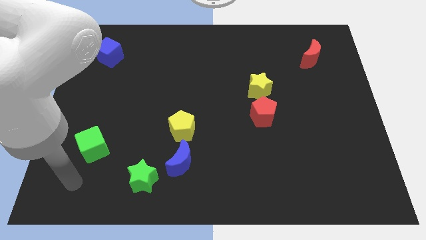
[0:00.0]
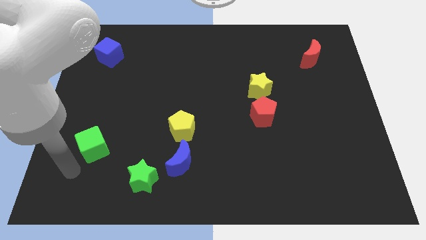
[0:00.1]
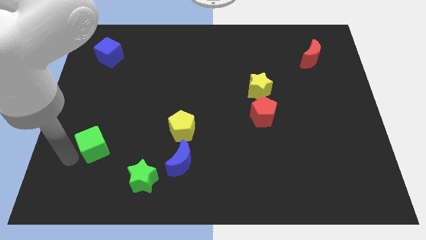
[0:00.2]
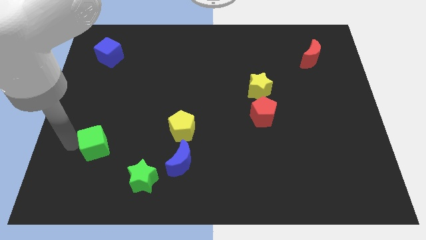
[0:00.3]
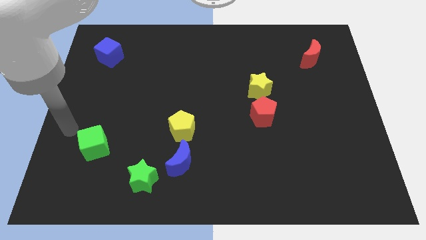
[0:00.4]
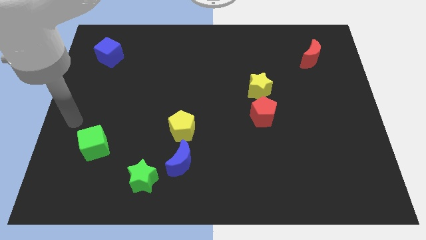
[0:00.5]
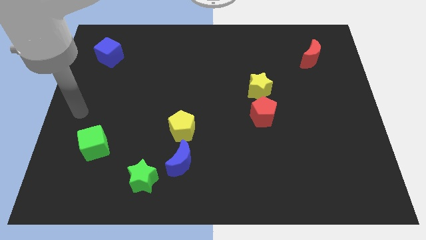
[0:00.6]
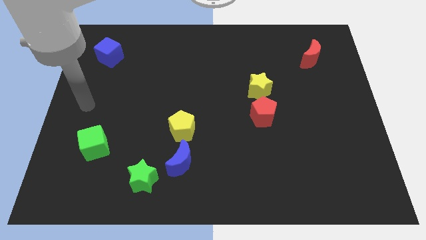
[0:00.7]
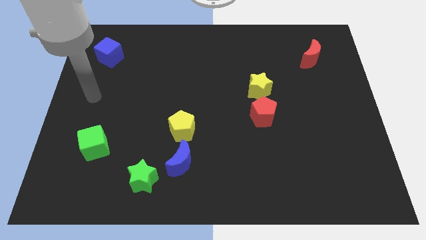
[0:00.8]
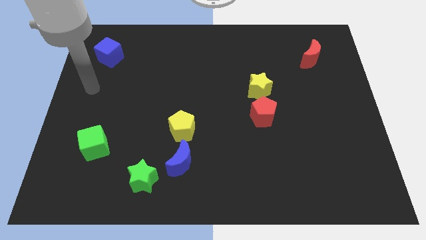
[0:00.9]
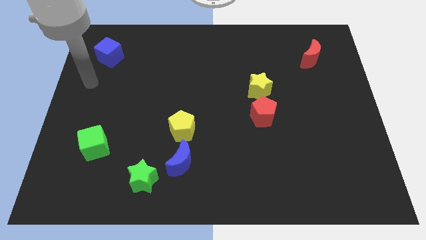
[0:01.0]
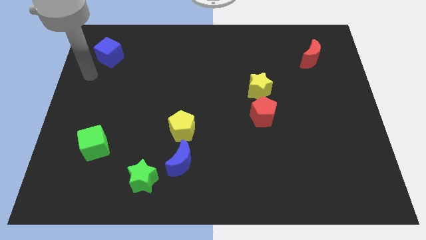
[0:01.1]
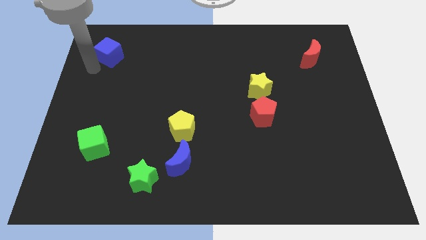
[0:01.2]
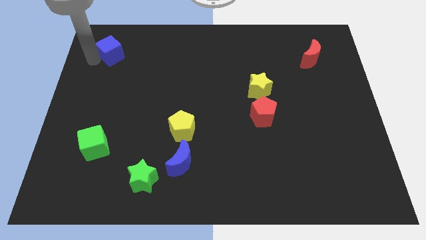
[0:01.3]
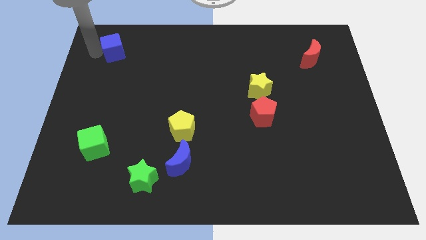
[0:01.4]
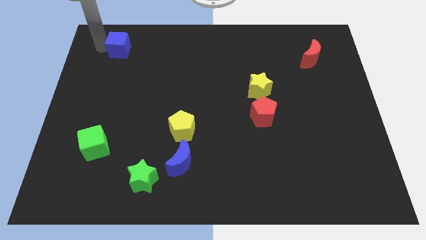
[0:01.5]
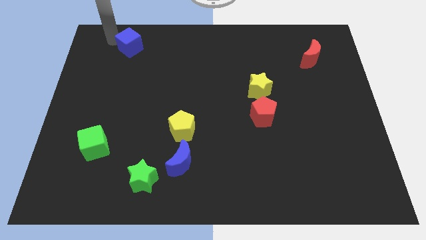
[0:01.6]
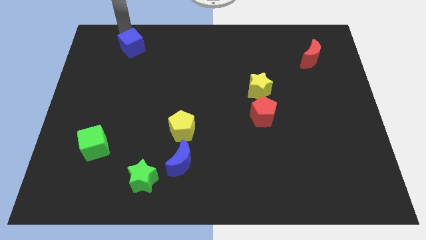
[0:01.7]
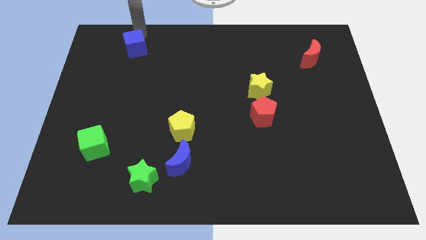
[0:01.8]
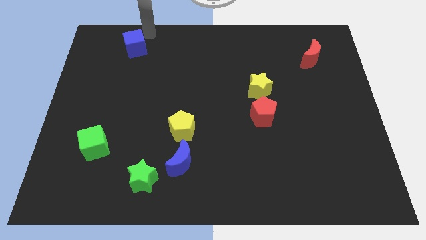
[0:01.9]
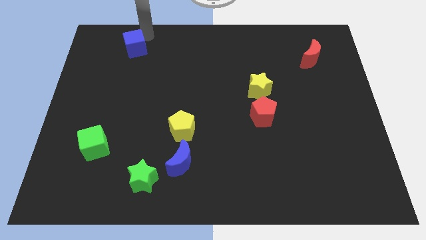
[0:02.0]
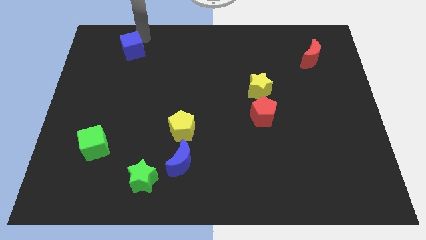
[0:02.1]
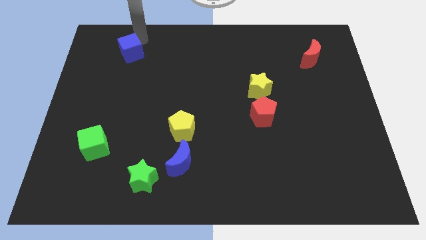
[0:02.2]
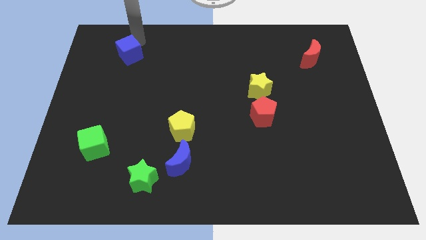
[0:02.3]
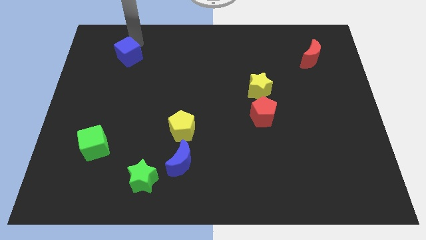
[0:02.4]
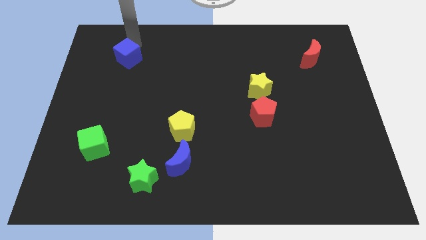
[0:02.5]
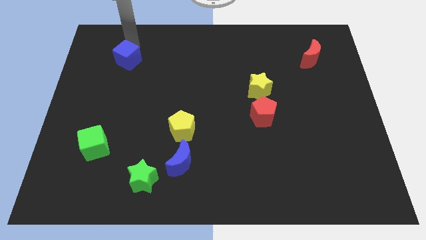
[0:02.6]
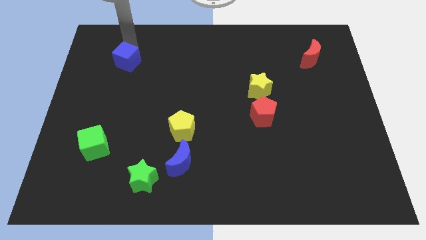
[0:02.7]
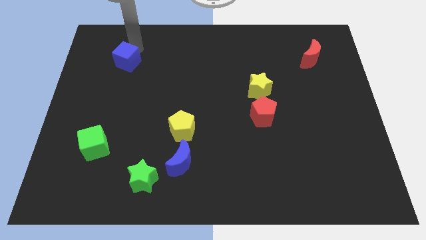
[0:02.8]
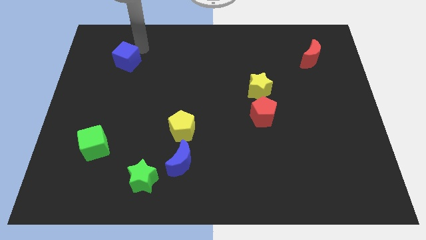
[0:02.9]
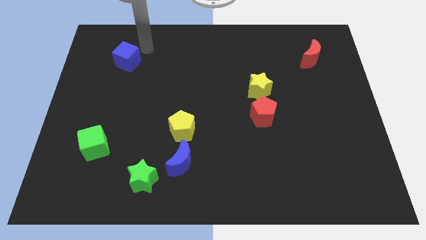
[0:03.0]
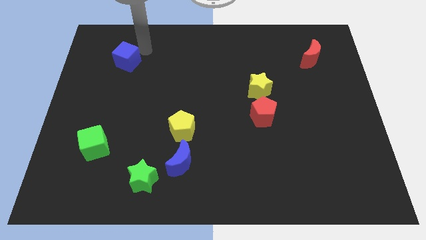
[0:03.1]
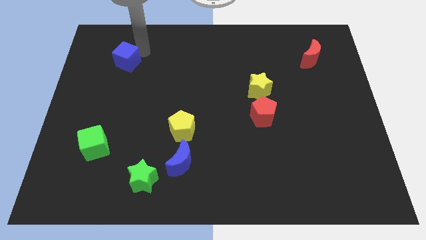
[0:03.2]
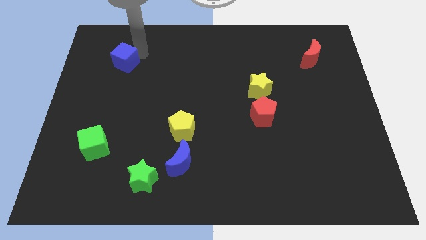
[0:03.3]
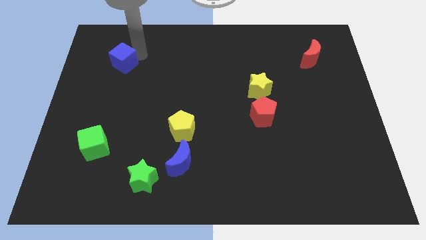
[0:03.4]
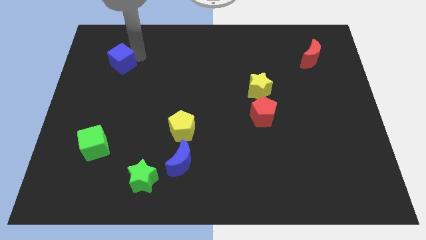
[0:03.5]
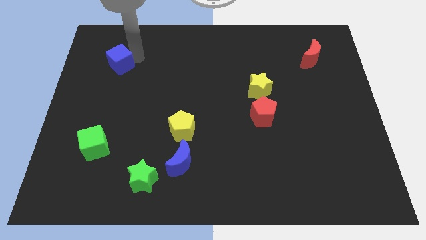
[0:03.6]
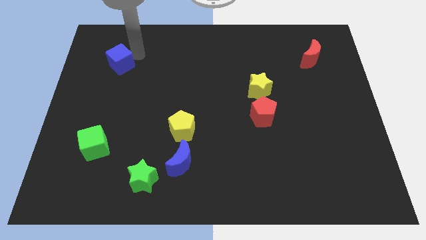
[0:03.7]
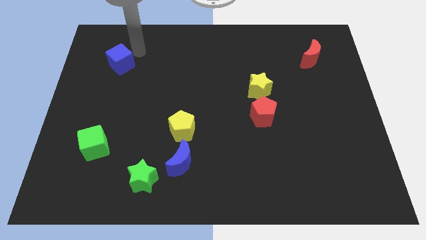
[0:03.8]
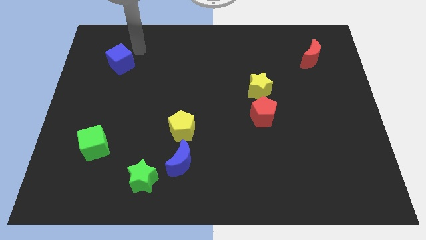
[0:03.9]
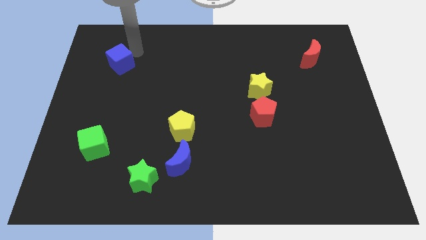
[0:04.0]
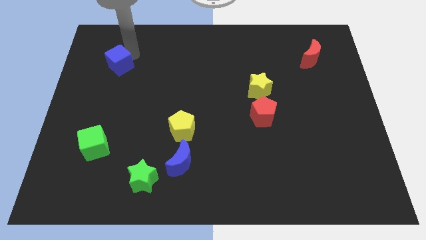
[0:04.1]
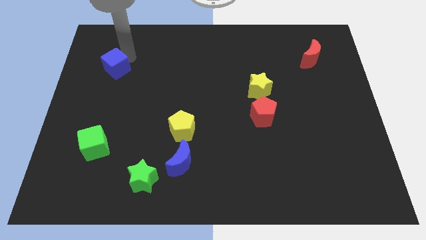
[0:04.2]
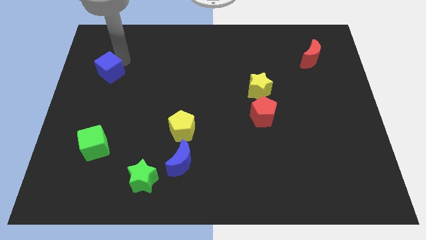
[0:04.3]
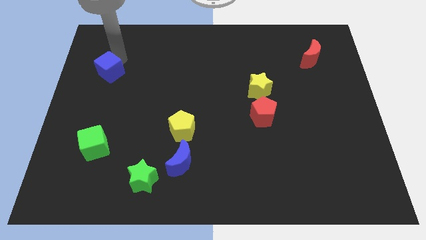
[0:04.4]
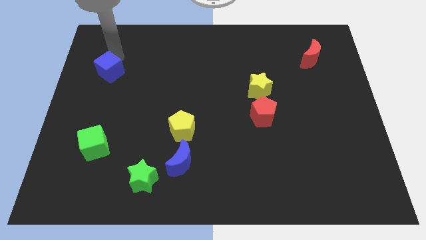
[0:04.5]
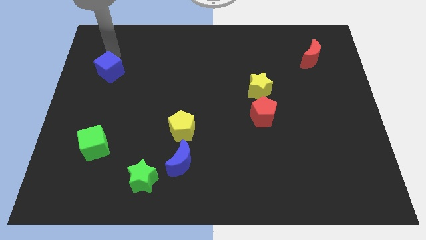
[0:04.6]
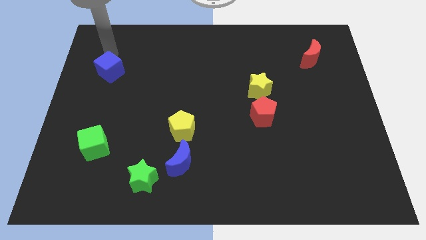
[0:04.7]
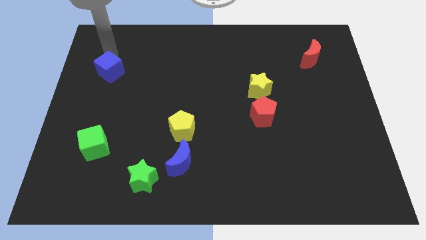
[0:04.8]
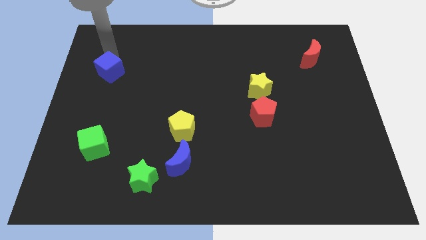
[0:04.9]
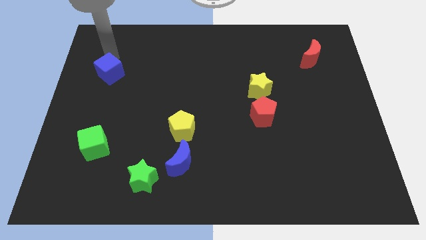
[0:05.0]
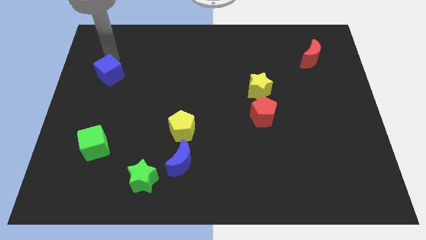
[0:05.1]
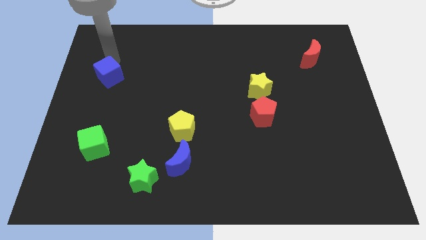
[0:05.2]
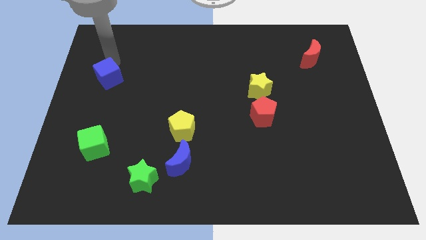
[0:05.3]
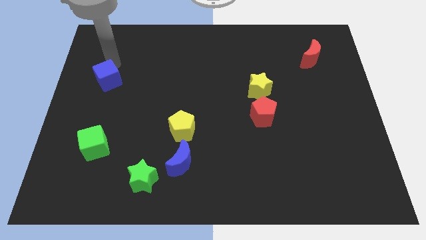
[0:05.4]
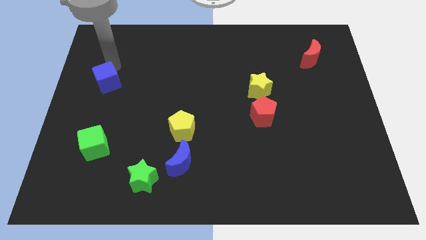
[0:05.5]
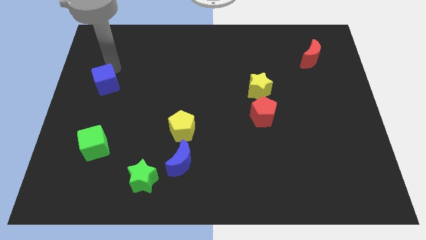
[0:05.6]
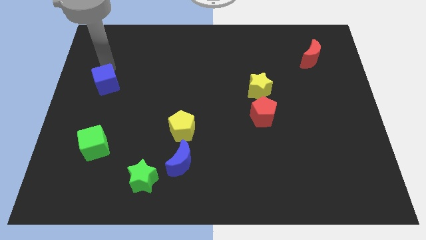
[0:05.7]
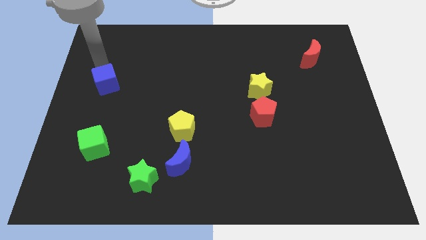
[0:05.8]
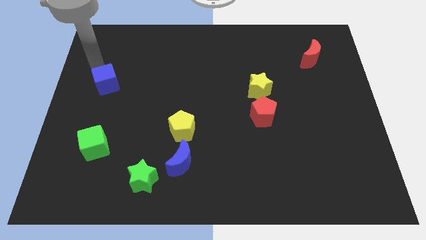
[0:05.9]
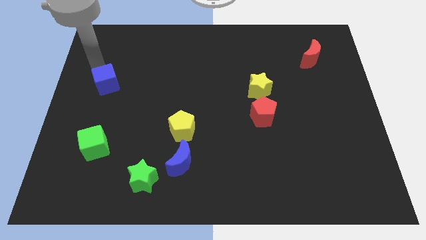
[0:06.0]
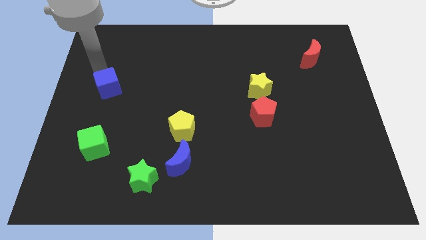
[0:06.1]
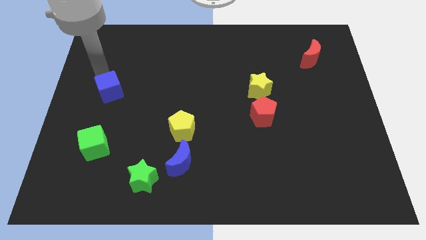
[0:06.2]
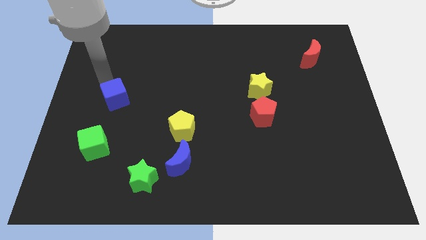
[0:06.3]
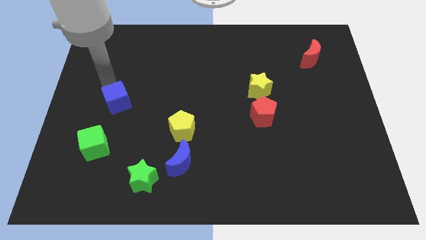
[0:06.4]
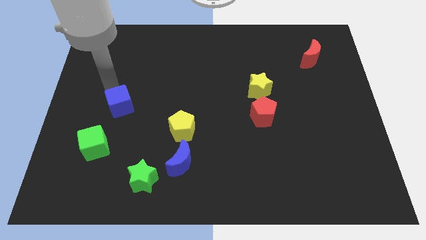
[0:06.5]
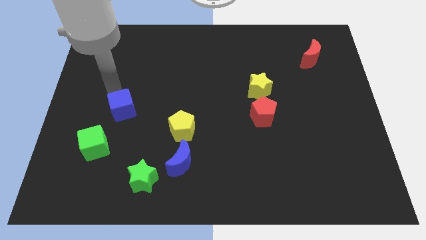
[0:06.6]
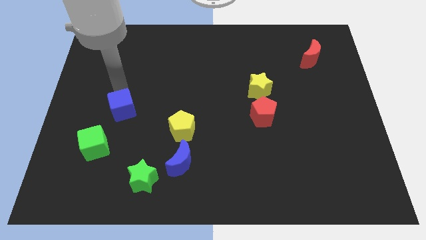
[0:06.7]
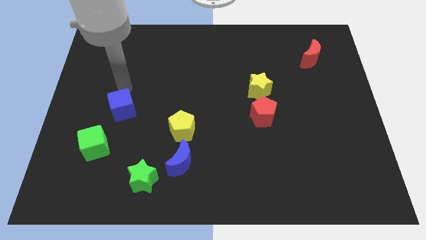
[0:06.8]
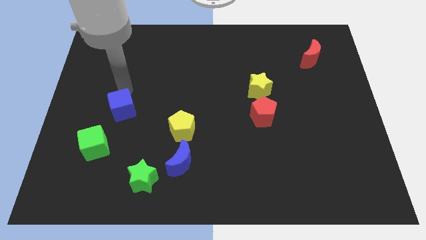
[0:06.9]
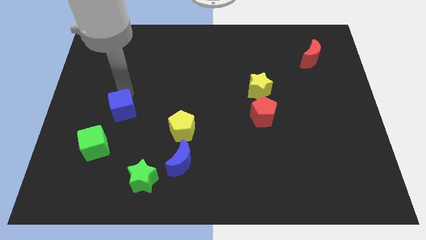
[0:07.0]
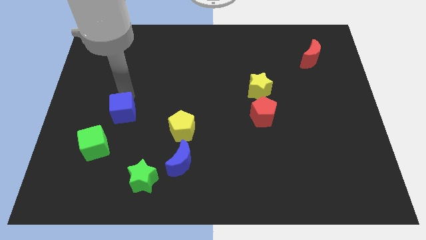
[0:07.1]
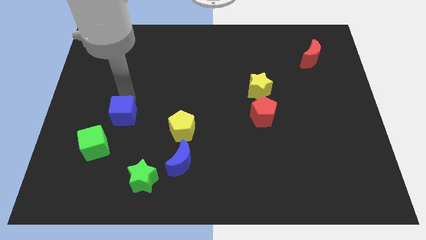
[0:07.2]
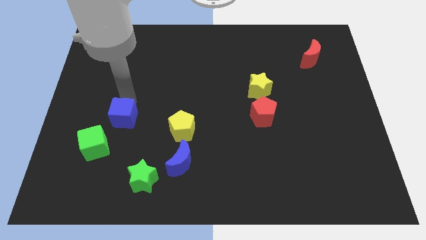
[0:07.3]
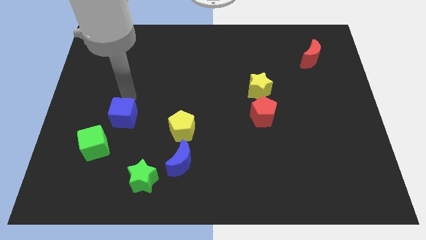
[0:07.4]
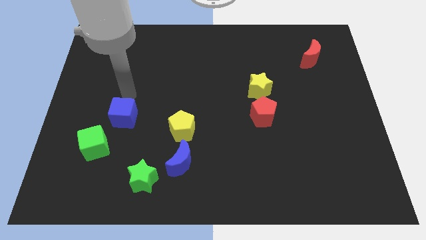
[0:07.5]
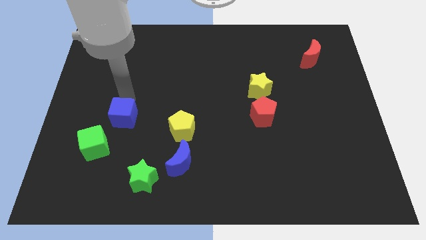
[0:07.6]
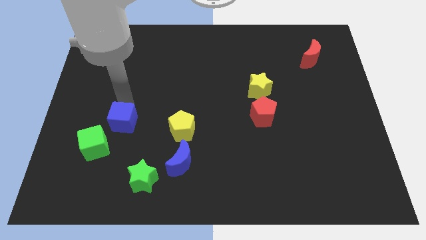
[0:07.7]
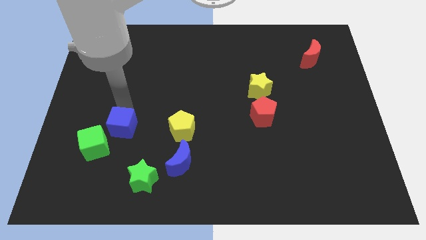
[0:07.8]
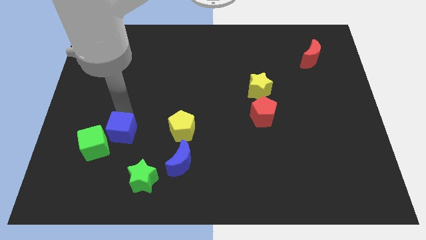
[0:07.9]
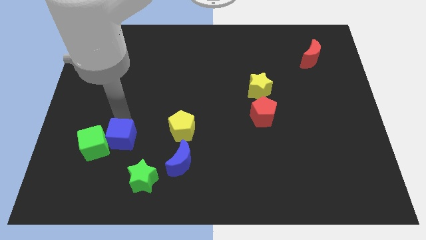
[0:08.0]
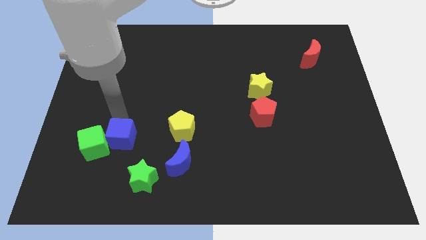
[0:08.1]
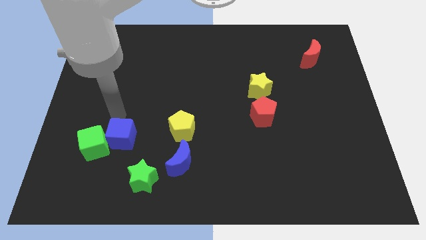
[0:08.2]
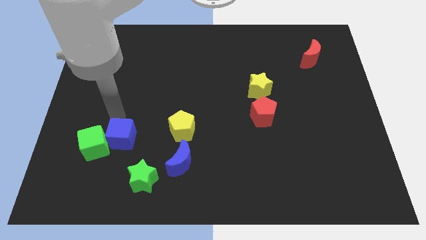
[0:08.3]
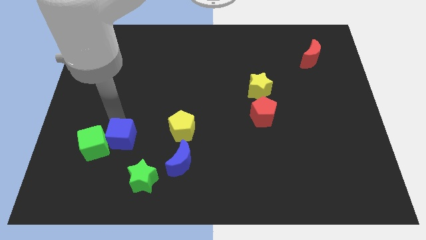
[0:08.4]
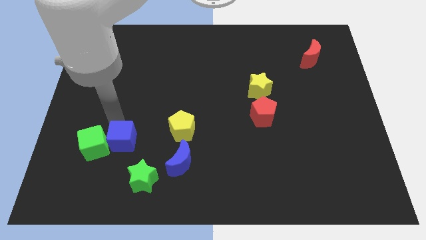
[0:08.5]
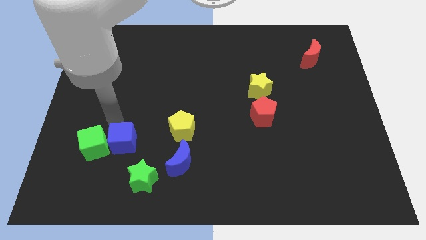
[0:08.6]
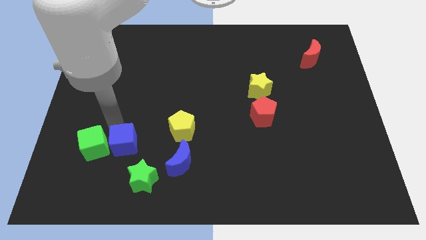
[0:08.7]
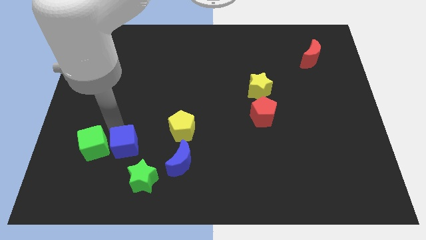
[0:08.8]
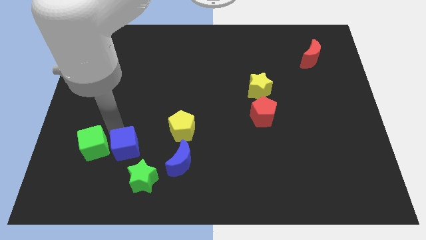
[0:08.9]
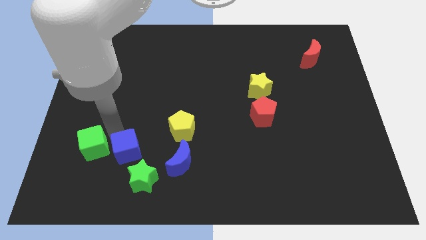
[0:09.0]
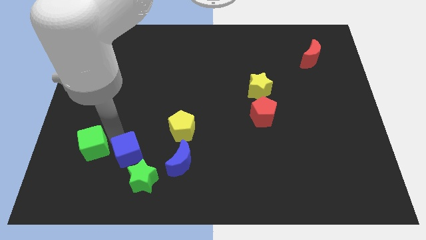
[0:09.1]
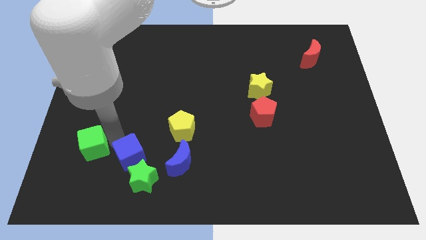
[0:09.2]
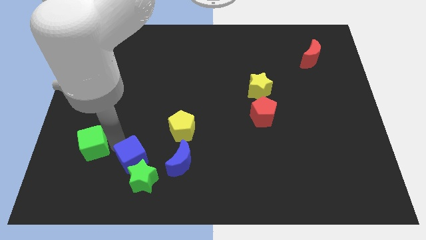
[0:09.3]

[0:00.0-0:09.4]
push the blue cube towards the green star
